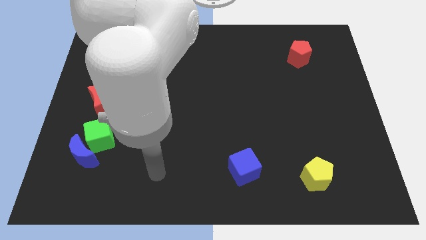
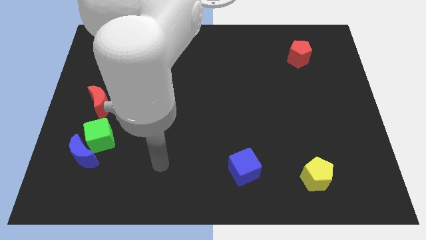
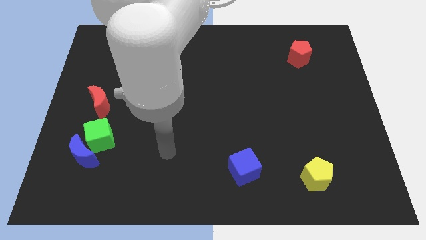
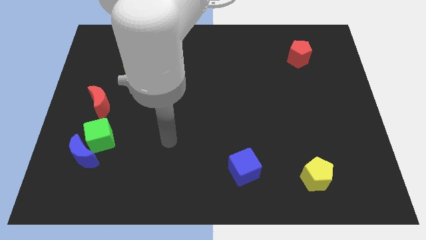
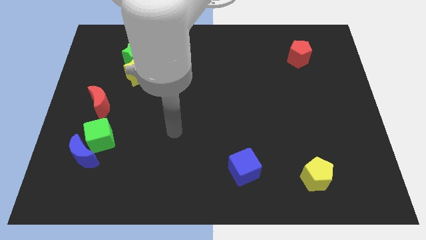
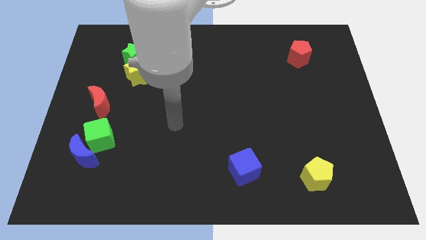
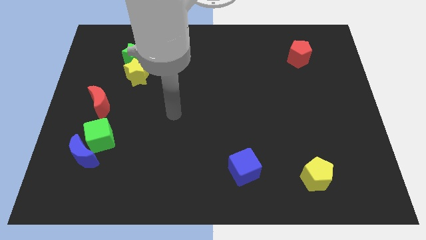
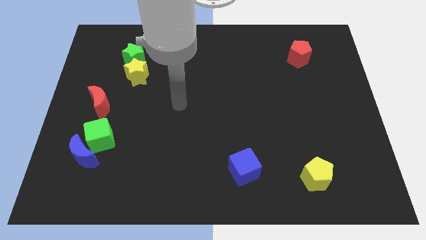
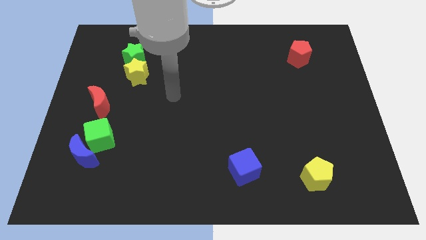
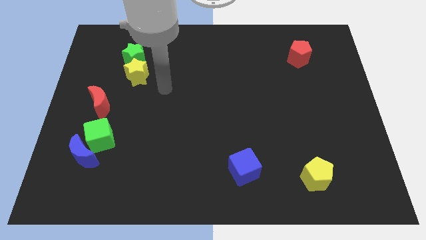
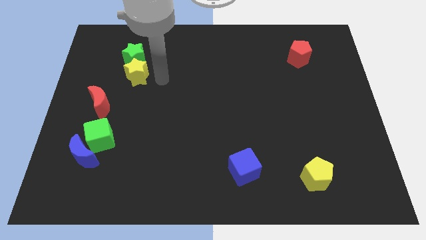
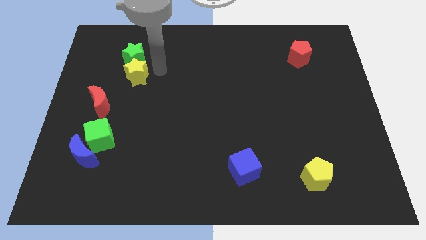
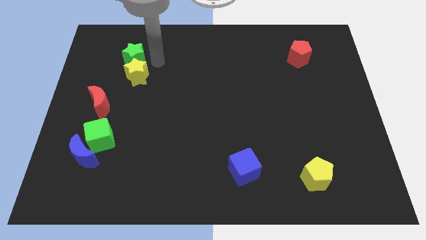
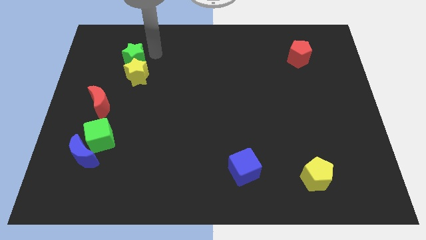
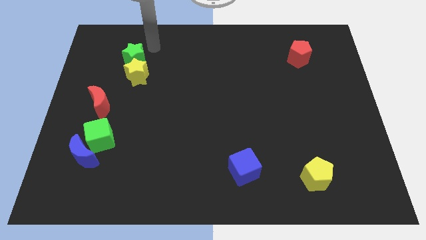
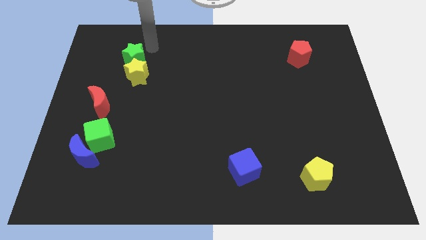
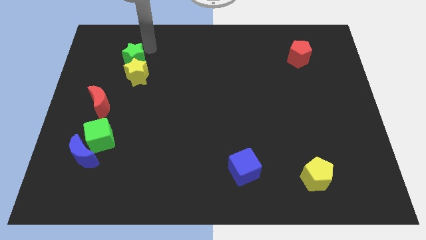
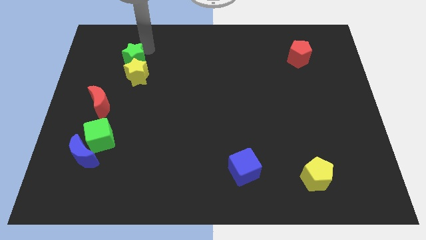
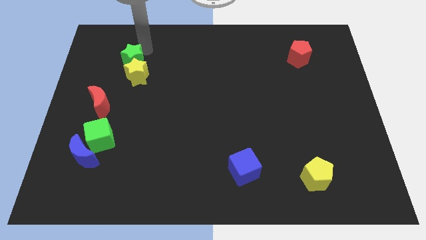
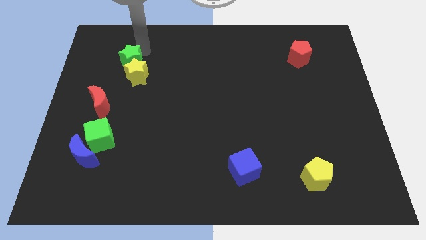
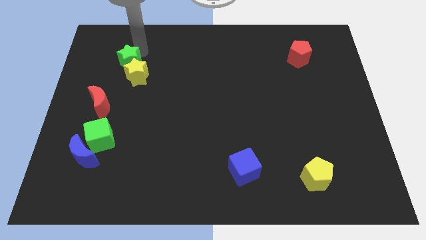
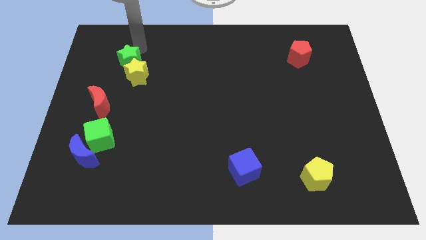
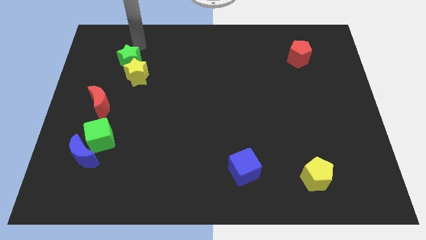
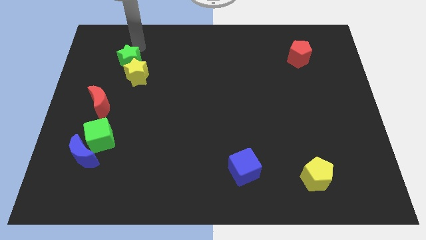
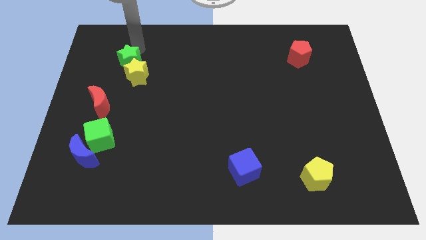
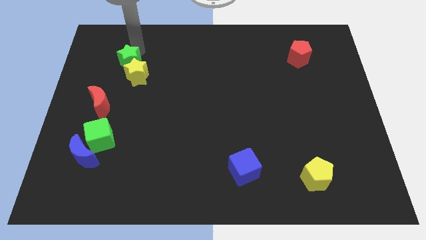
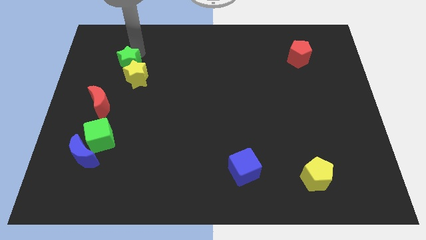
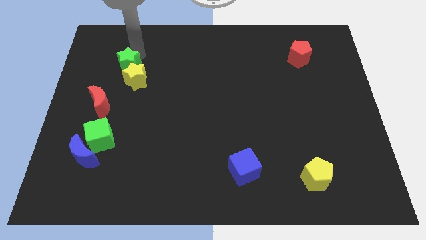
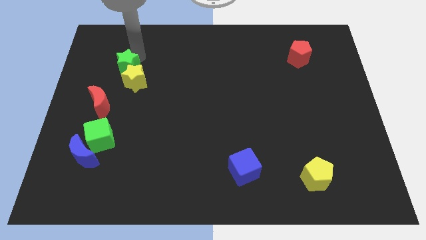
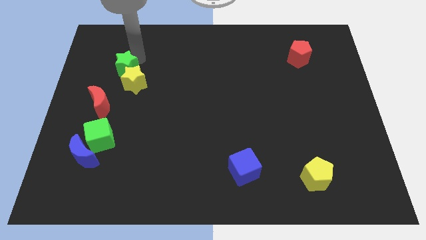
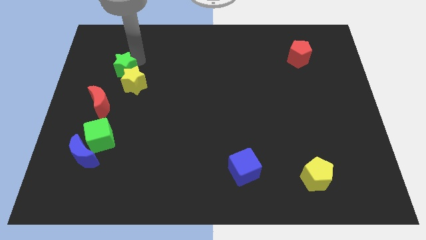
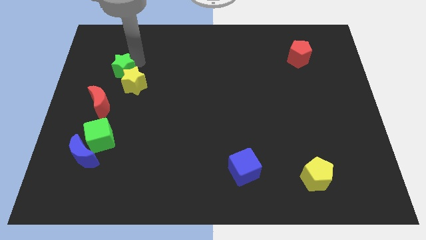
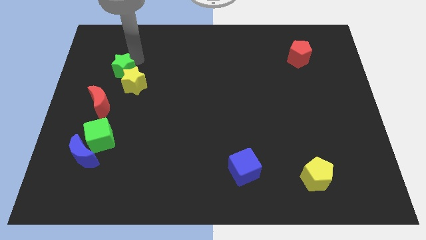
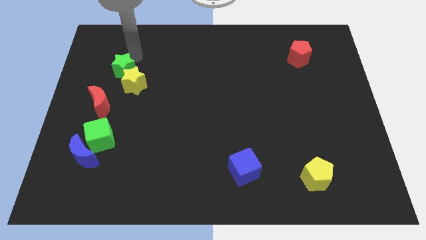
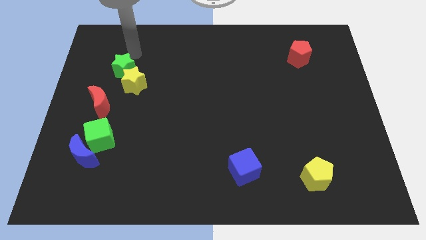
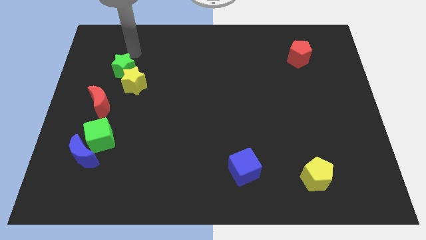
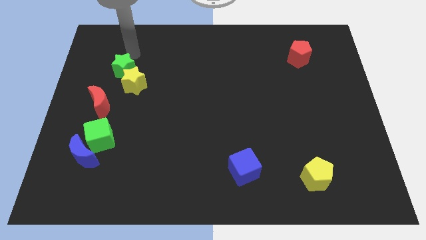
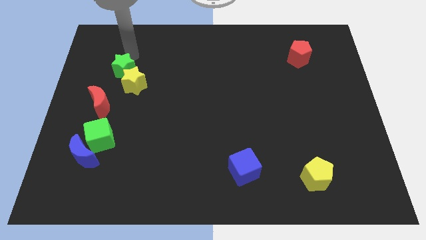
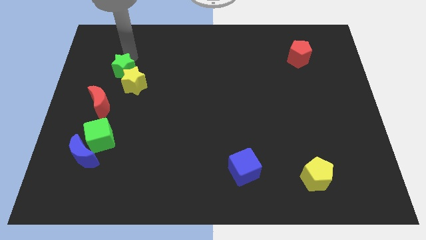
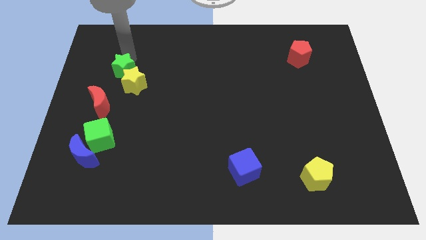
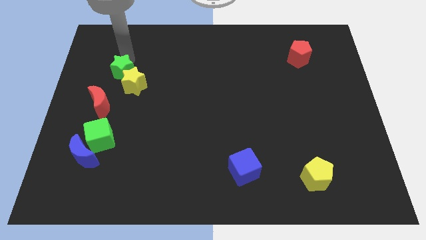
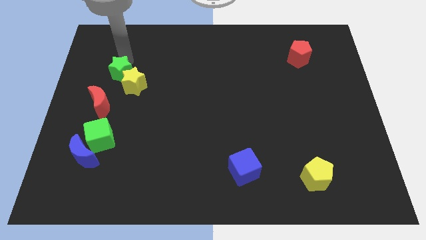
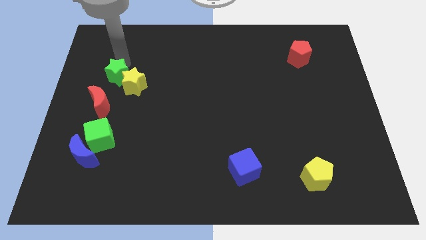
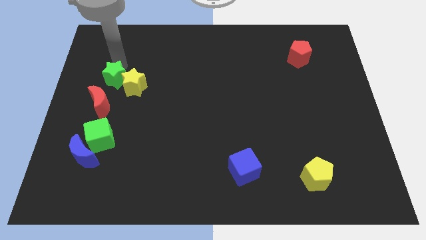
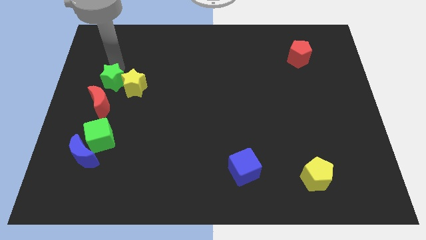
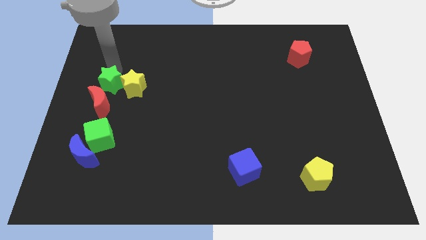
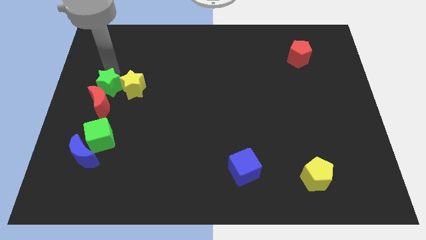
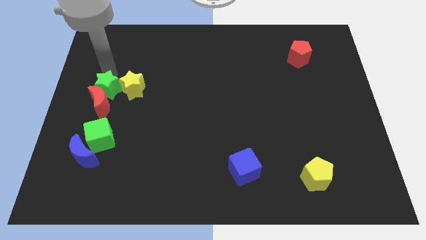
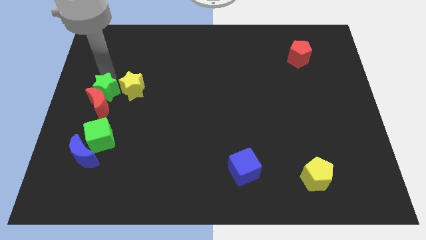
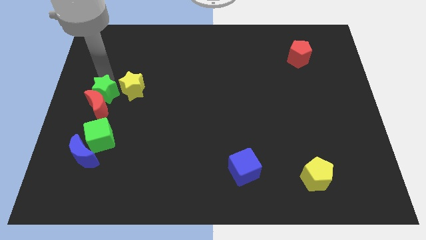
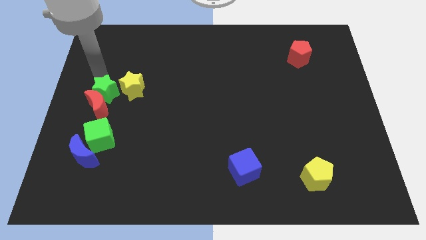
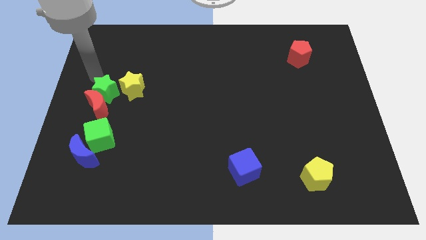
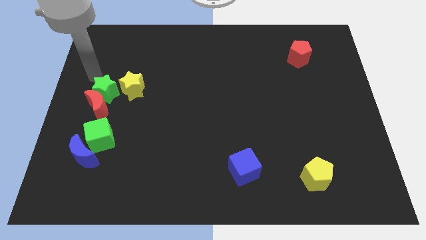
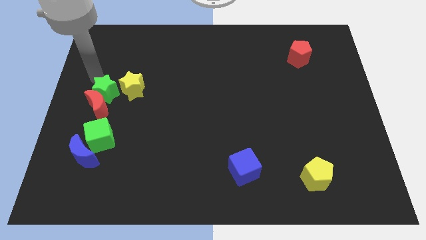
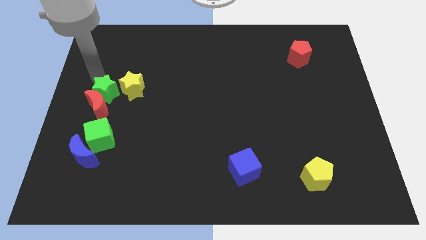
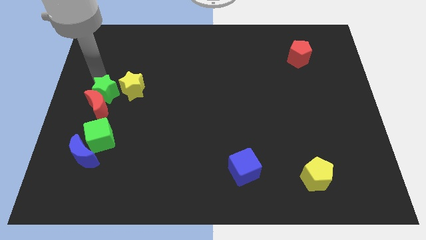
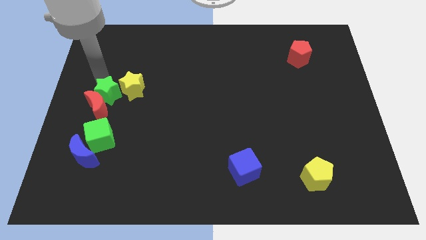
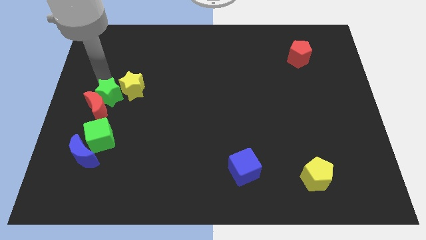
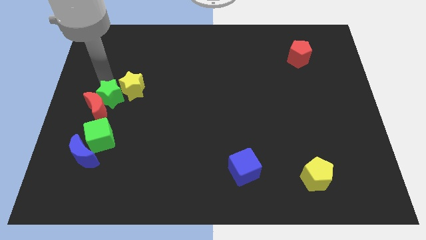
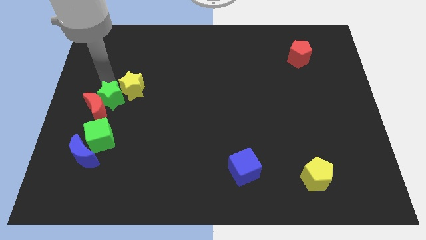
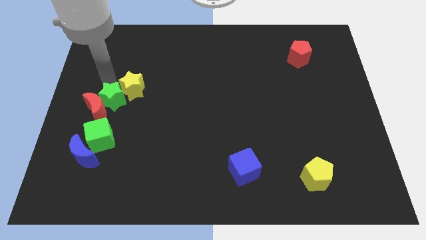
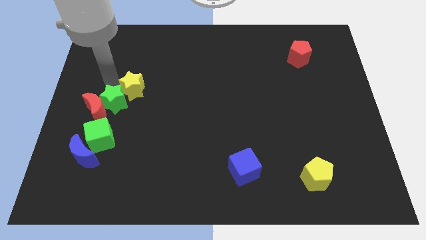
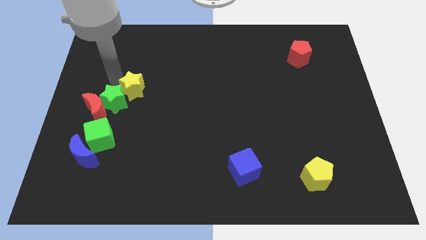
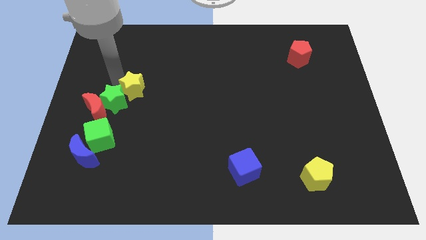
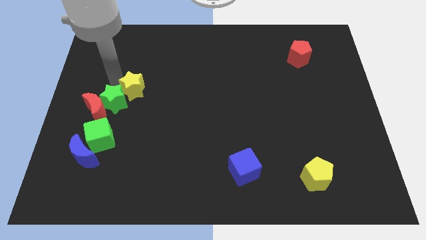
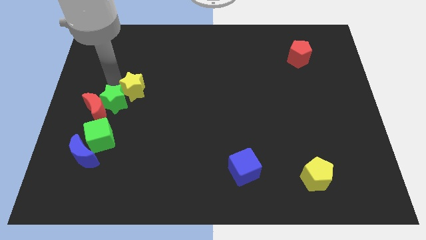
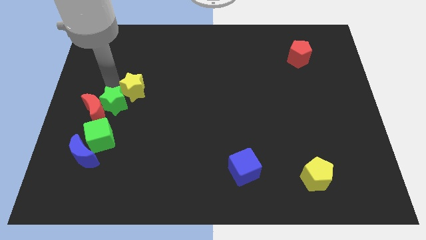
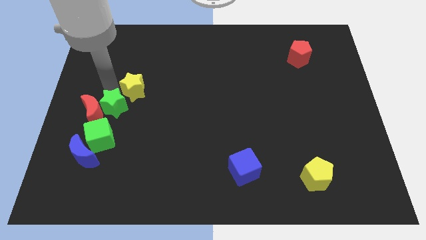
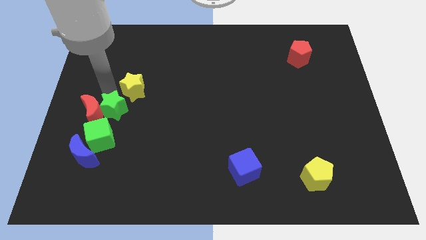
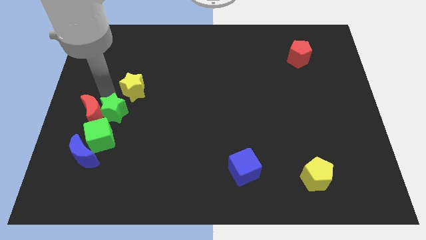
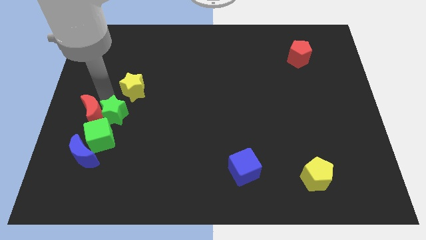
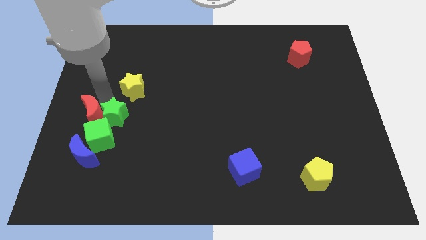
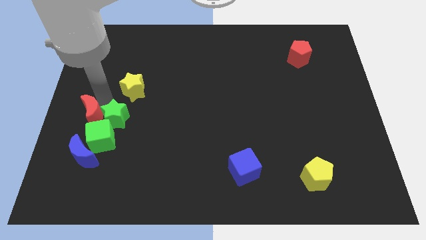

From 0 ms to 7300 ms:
put the green star to the top right of the blue moon

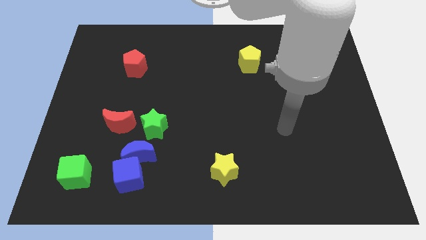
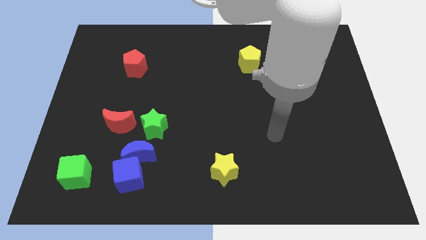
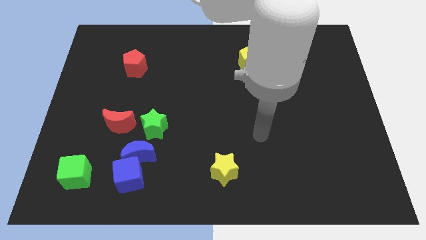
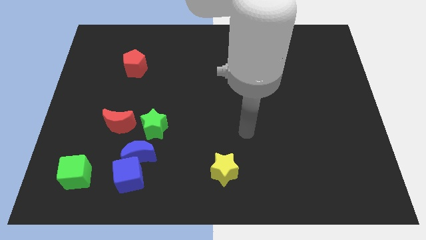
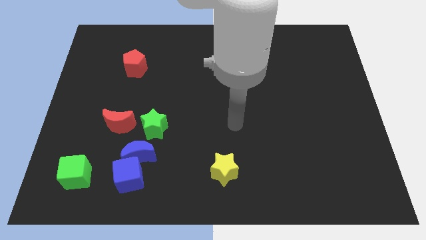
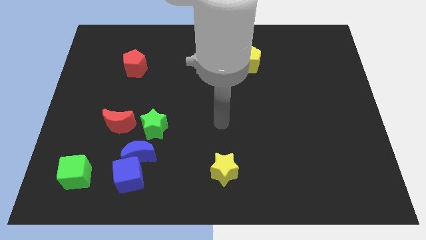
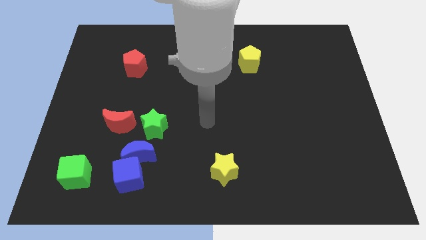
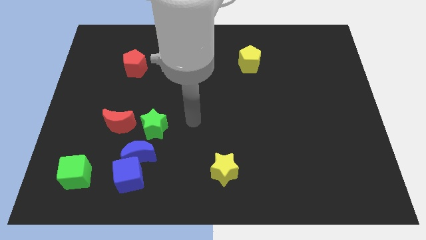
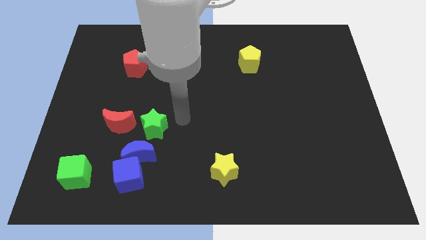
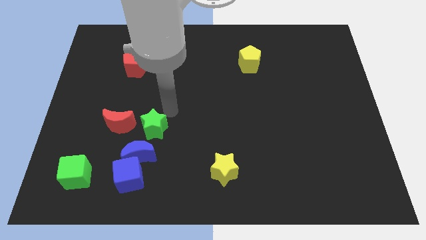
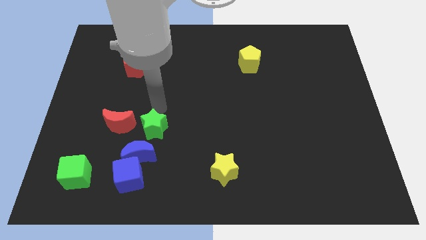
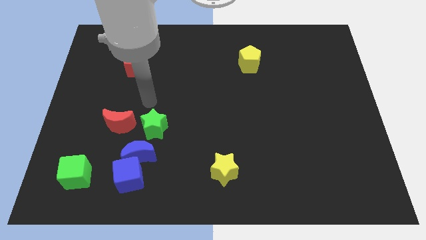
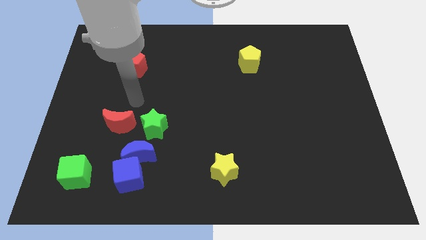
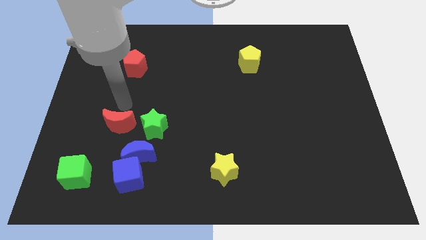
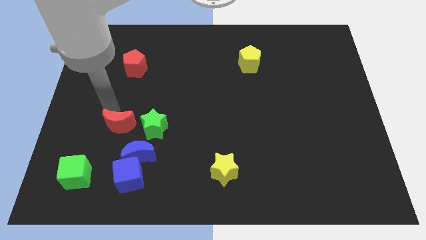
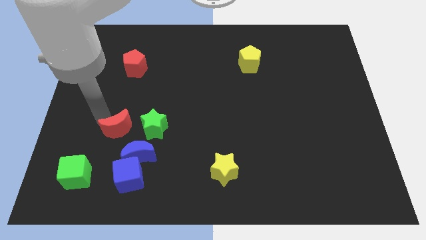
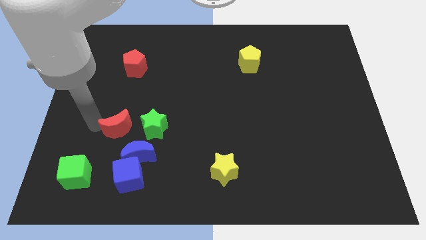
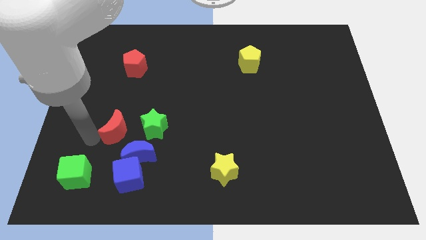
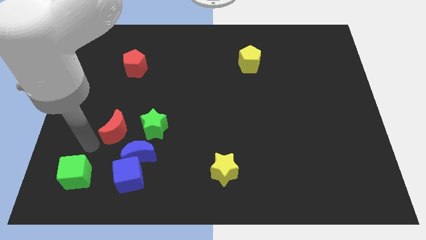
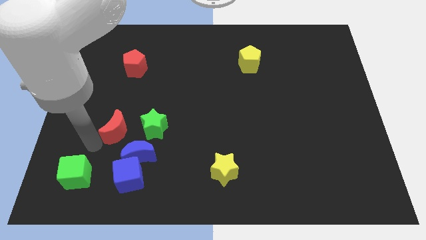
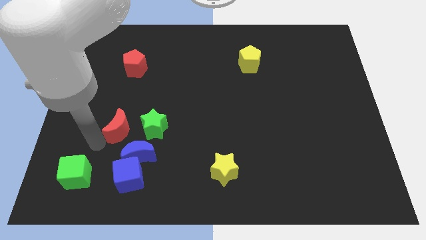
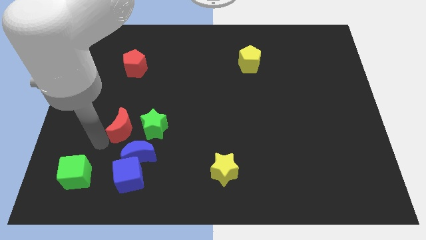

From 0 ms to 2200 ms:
put the red moon to the top of the blue moon
